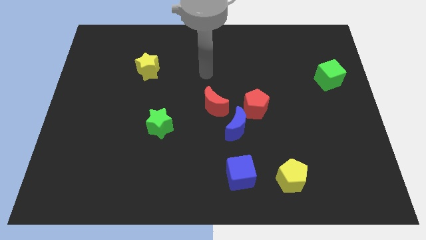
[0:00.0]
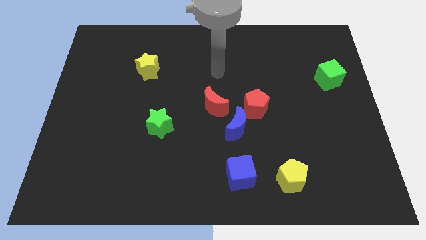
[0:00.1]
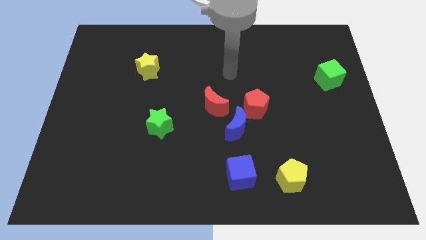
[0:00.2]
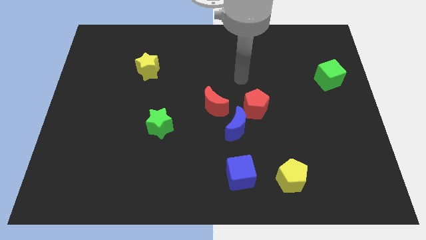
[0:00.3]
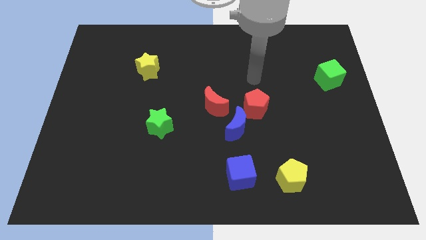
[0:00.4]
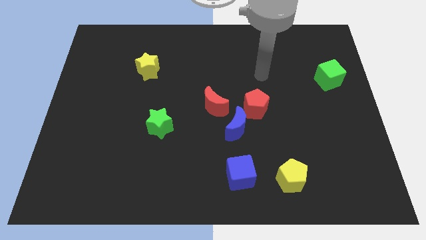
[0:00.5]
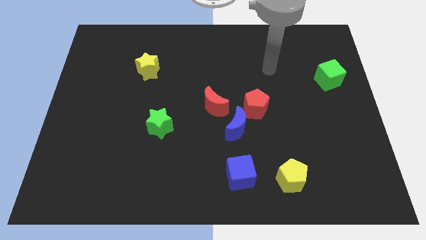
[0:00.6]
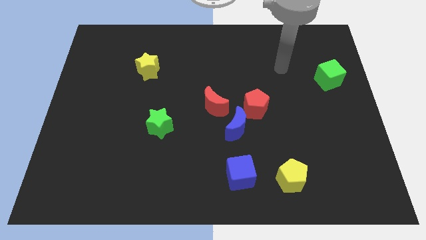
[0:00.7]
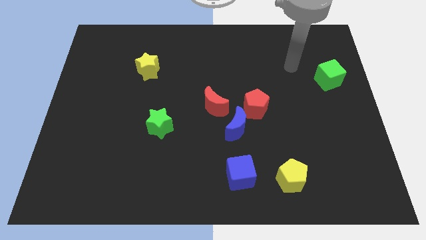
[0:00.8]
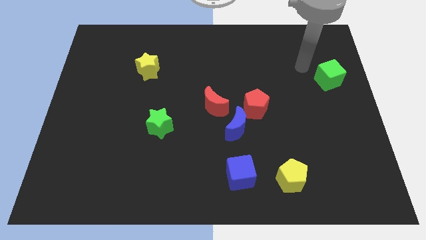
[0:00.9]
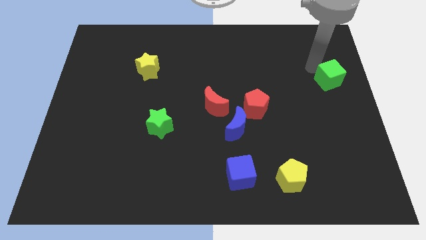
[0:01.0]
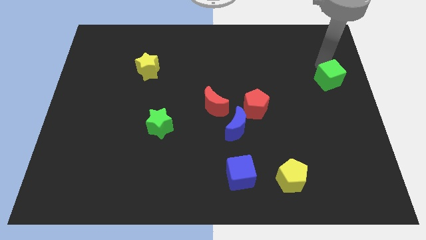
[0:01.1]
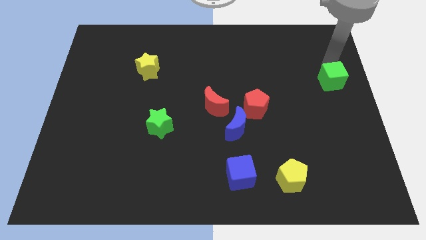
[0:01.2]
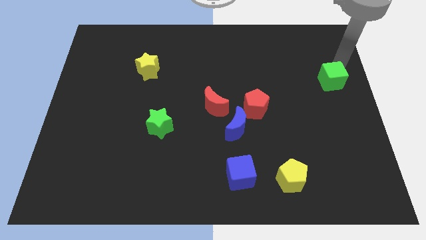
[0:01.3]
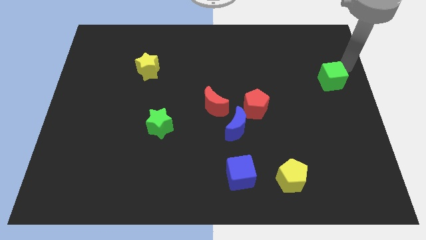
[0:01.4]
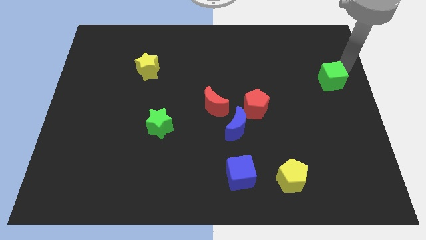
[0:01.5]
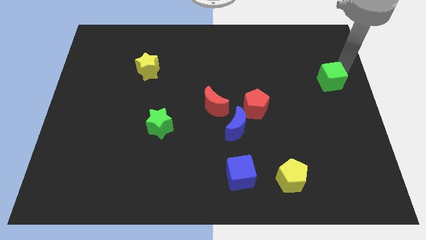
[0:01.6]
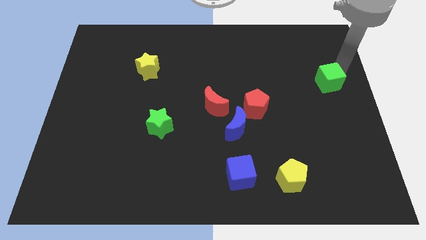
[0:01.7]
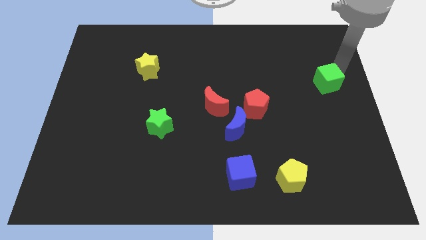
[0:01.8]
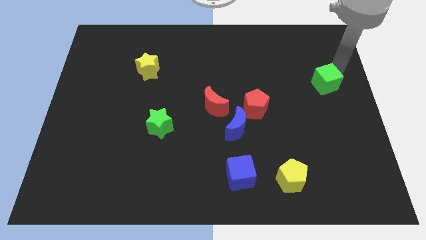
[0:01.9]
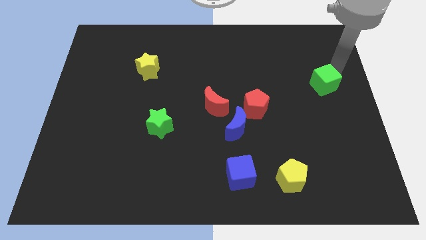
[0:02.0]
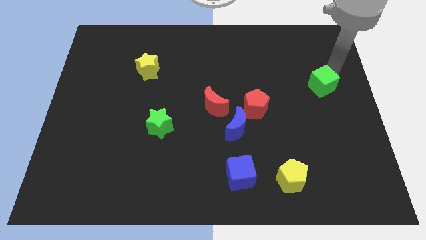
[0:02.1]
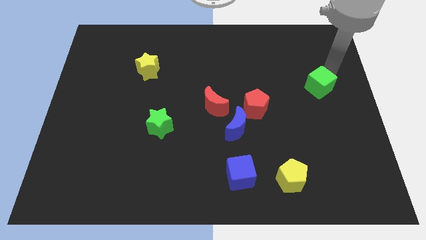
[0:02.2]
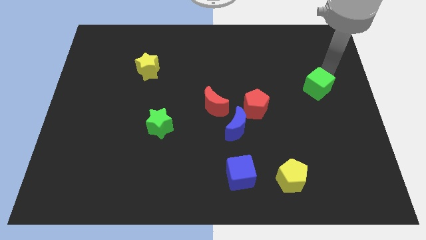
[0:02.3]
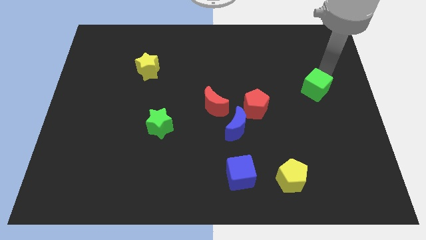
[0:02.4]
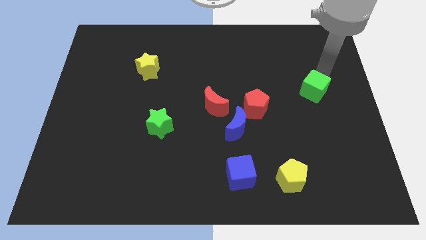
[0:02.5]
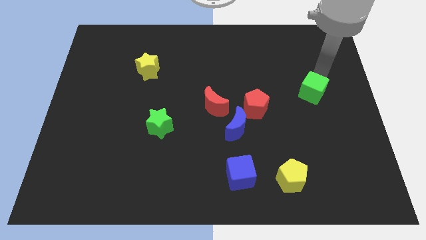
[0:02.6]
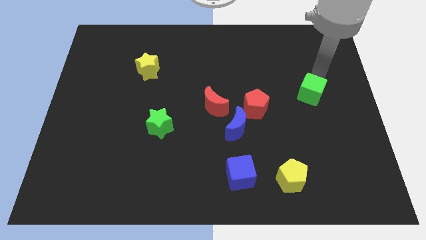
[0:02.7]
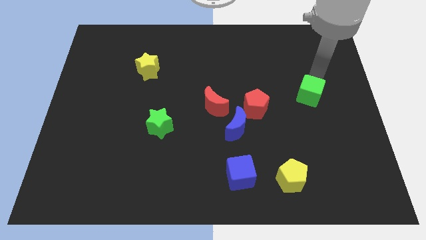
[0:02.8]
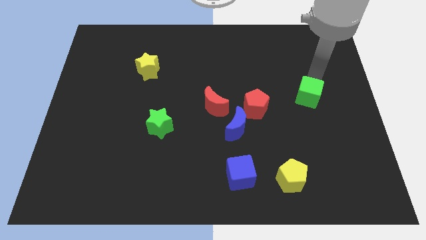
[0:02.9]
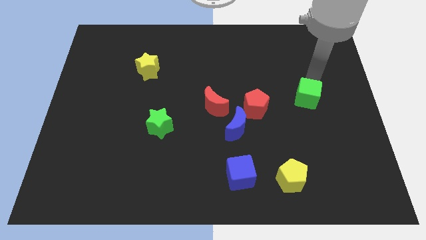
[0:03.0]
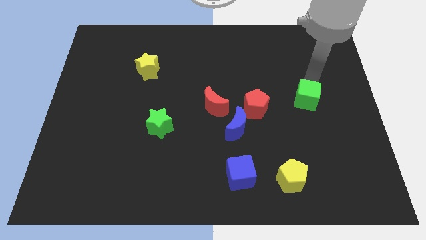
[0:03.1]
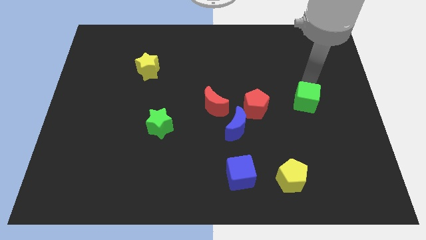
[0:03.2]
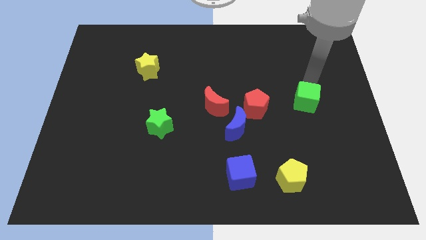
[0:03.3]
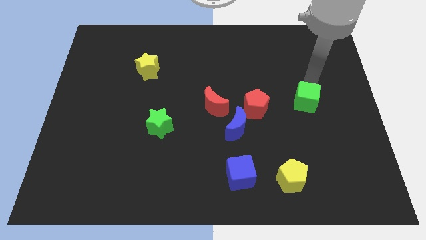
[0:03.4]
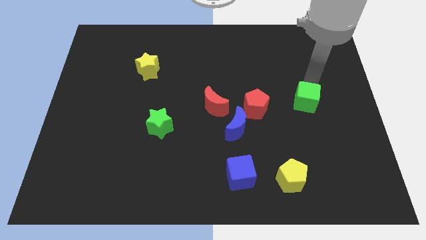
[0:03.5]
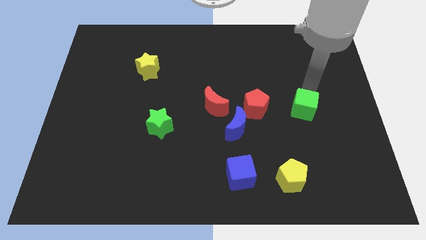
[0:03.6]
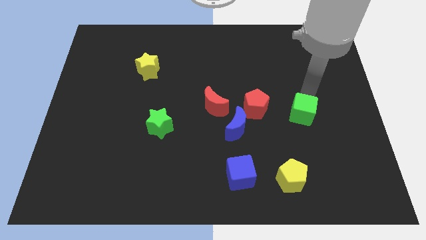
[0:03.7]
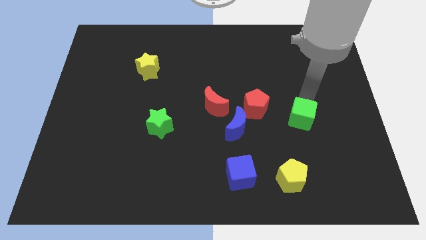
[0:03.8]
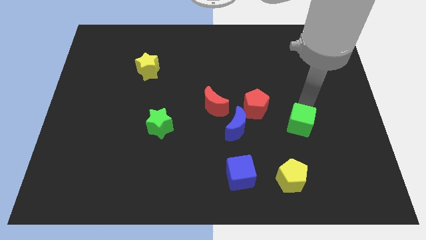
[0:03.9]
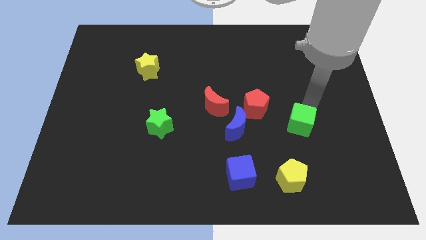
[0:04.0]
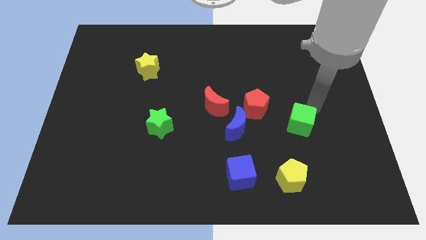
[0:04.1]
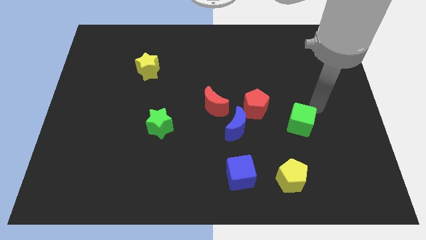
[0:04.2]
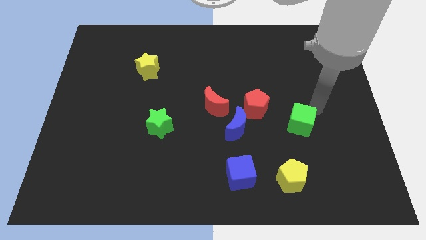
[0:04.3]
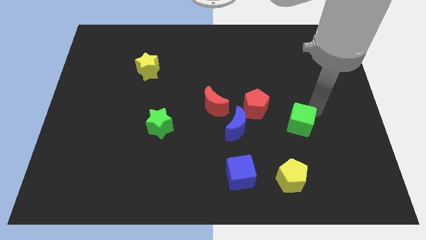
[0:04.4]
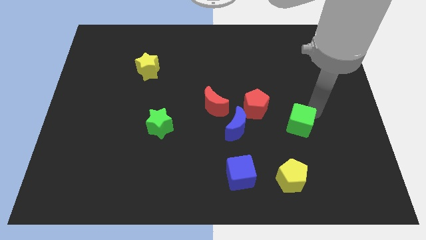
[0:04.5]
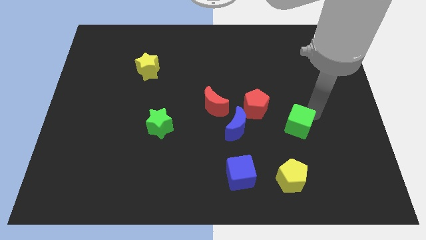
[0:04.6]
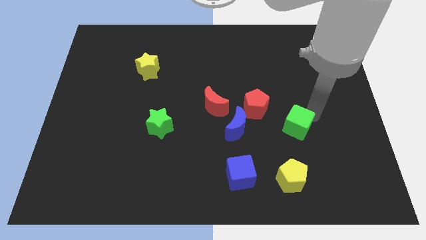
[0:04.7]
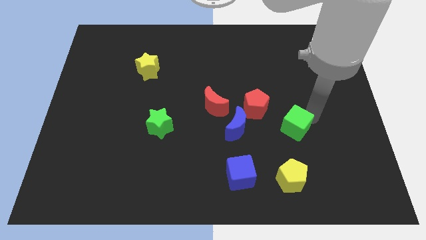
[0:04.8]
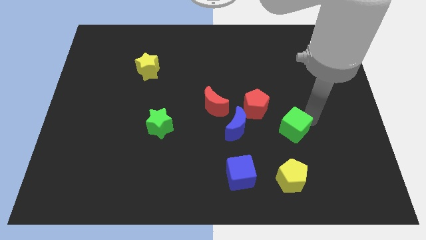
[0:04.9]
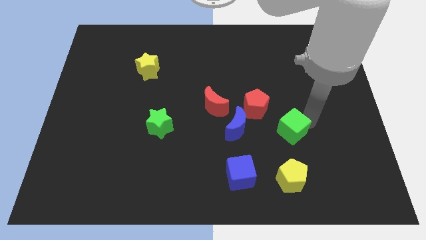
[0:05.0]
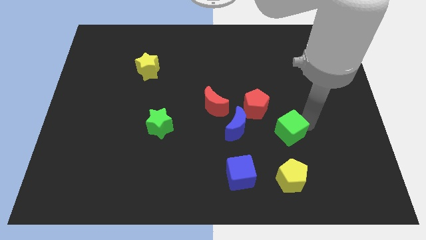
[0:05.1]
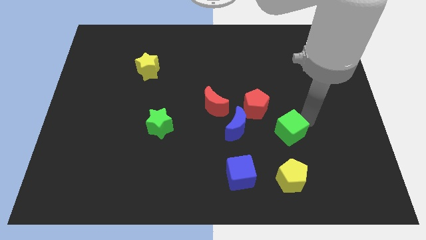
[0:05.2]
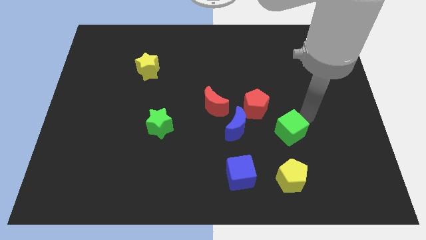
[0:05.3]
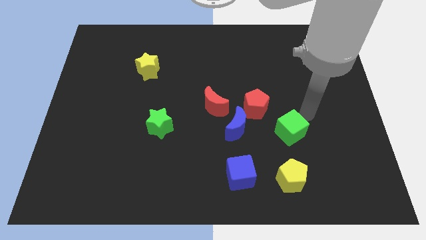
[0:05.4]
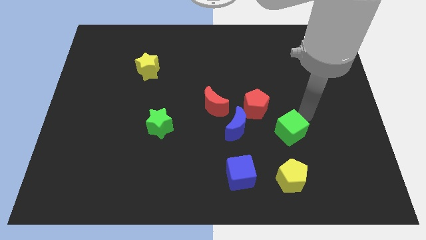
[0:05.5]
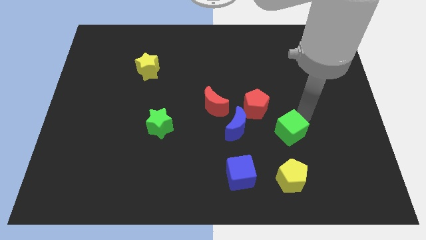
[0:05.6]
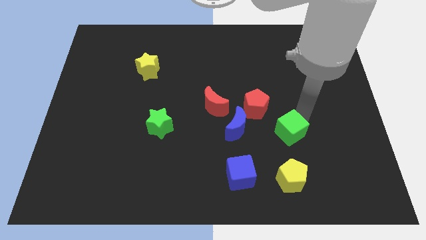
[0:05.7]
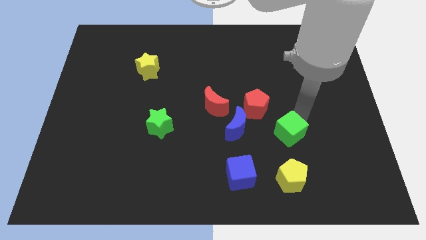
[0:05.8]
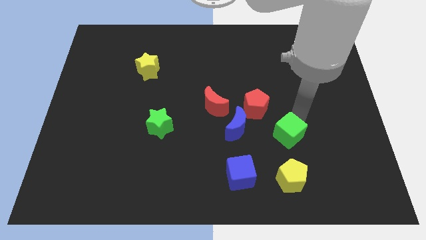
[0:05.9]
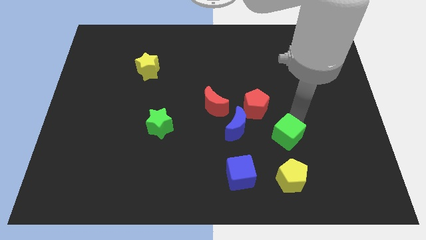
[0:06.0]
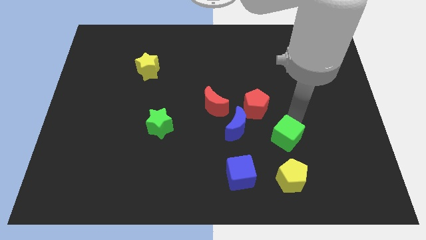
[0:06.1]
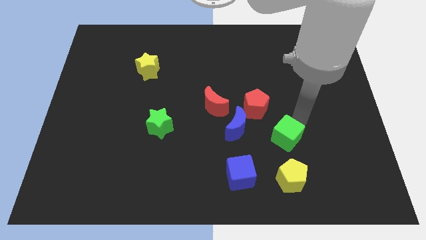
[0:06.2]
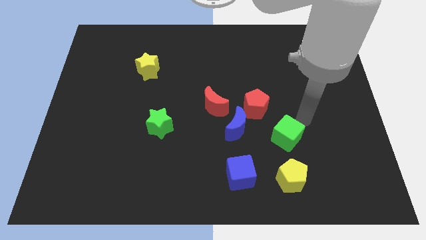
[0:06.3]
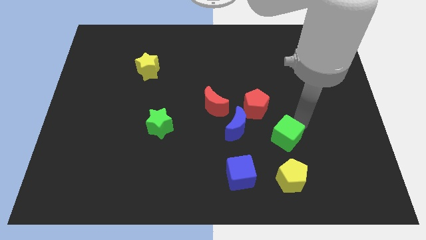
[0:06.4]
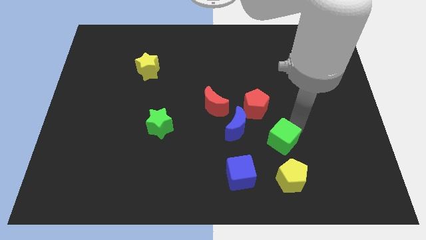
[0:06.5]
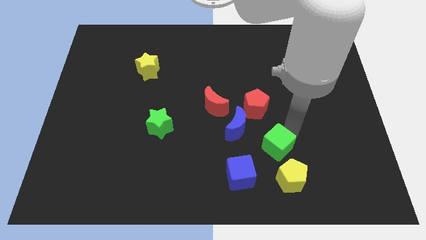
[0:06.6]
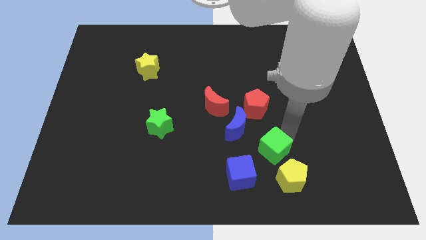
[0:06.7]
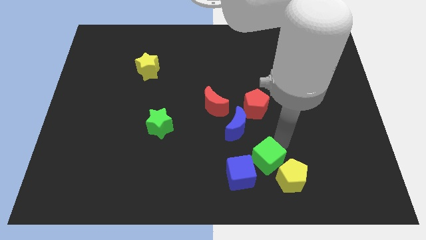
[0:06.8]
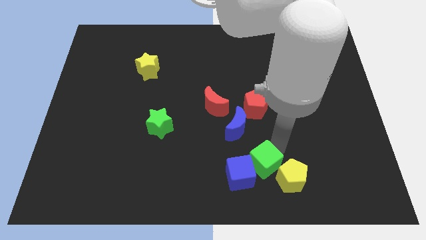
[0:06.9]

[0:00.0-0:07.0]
slide the green cube to the blue cube
